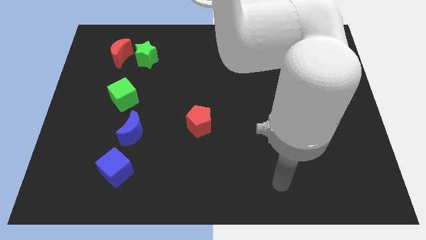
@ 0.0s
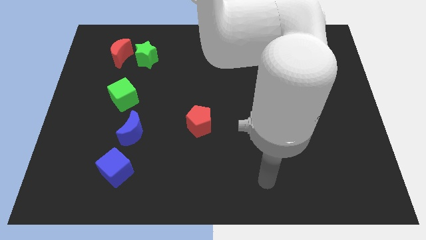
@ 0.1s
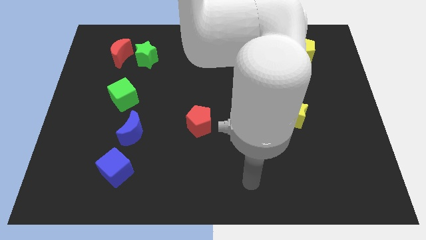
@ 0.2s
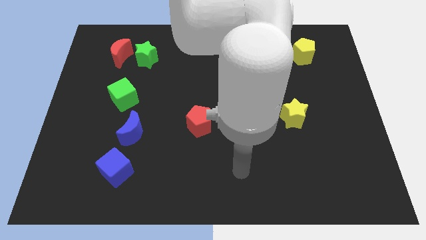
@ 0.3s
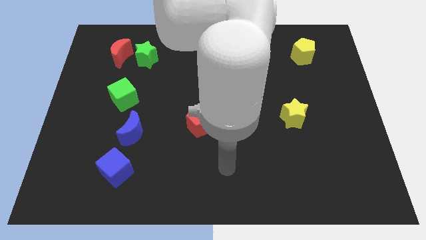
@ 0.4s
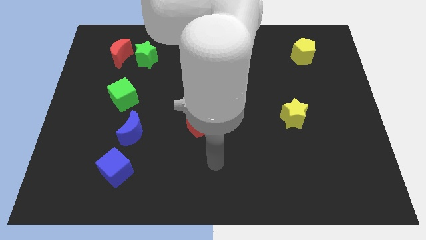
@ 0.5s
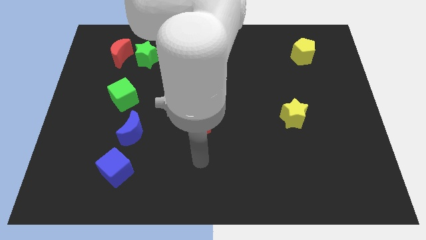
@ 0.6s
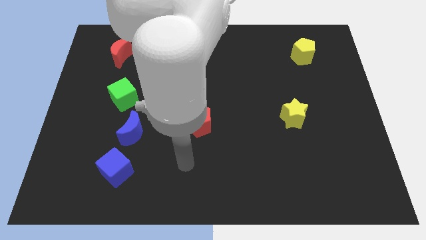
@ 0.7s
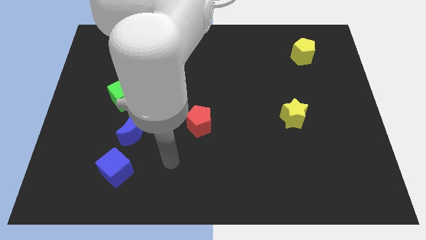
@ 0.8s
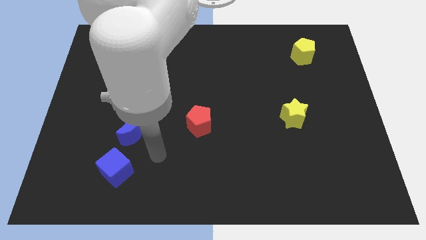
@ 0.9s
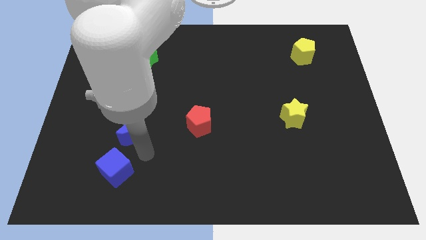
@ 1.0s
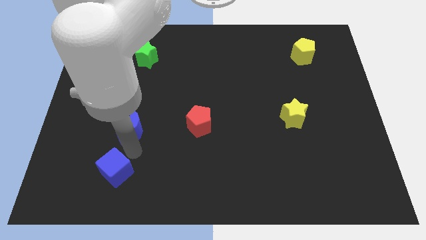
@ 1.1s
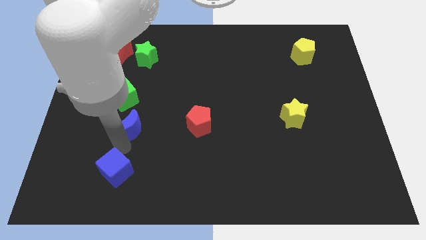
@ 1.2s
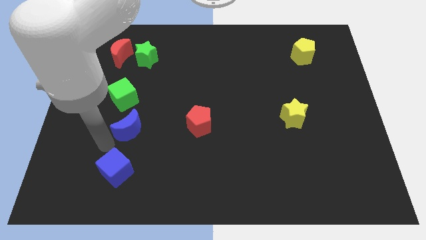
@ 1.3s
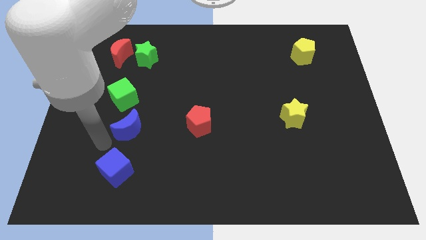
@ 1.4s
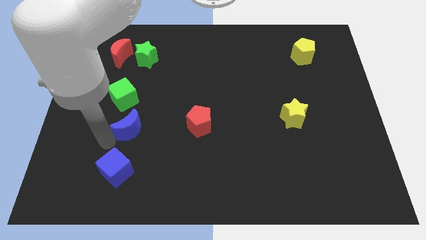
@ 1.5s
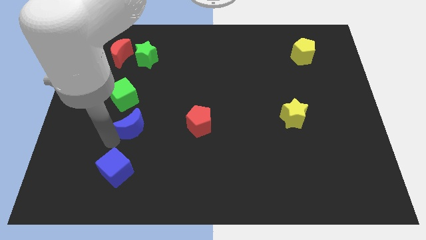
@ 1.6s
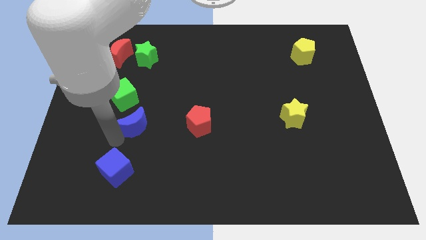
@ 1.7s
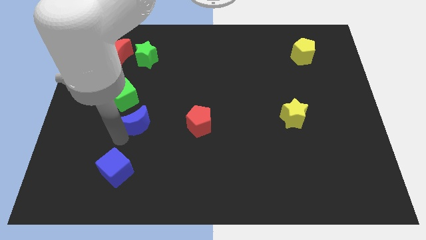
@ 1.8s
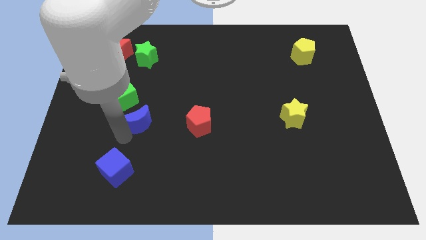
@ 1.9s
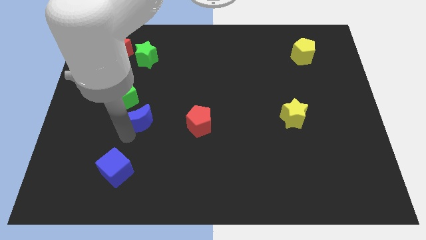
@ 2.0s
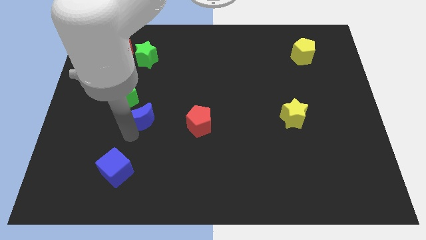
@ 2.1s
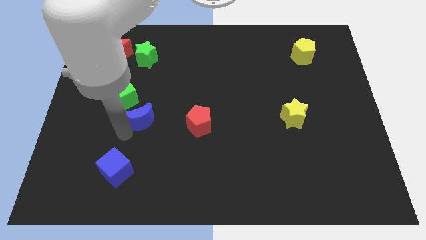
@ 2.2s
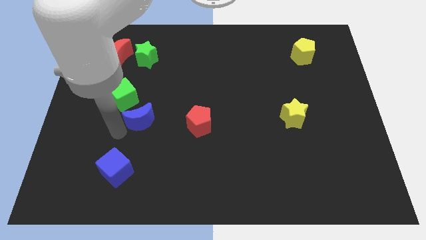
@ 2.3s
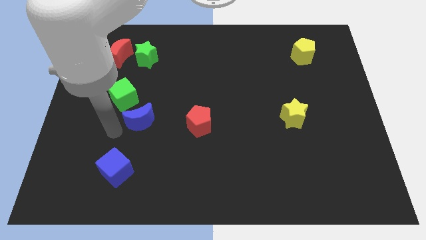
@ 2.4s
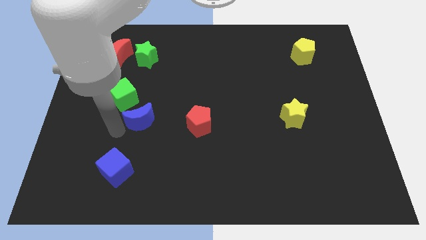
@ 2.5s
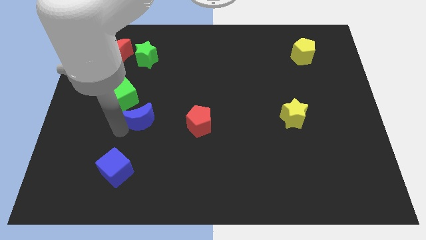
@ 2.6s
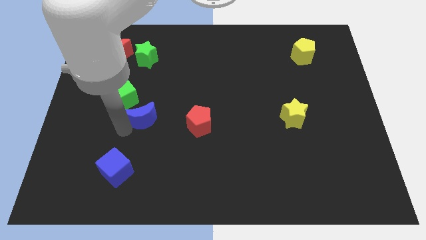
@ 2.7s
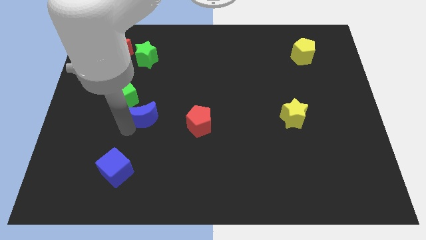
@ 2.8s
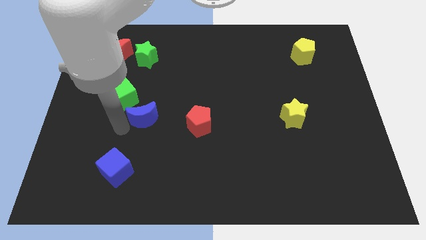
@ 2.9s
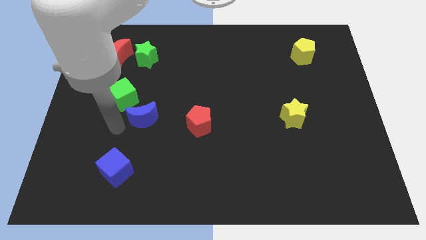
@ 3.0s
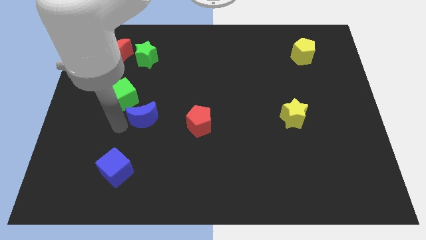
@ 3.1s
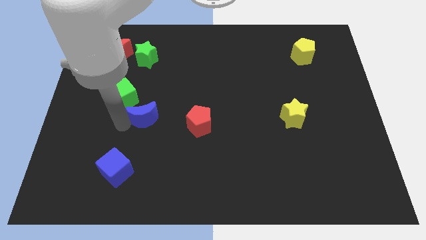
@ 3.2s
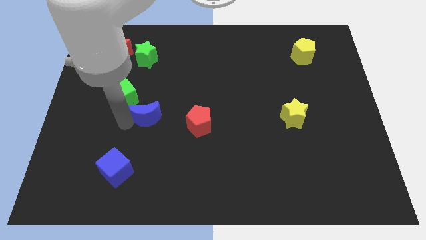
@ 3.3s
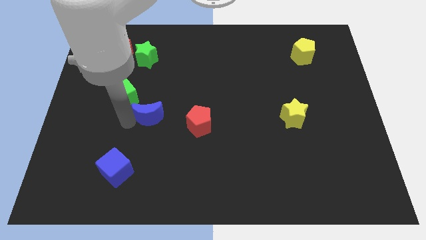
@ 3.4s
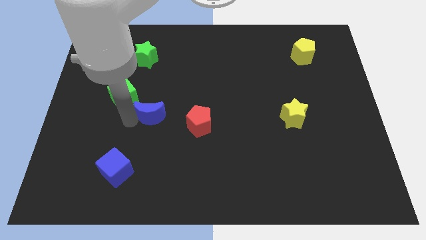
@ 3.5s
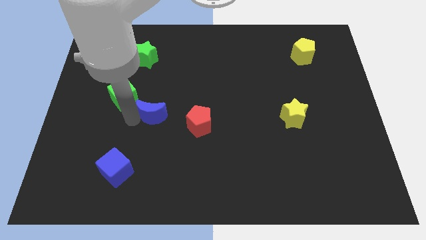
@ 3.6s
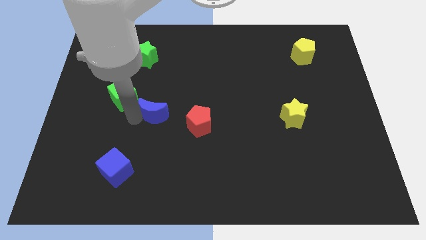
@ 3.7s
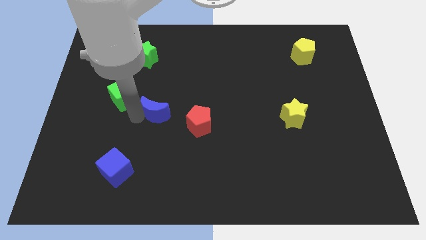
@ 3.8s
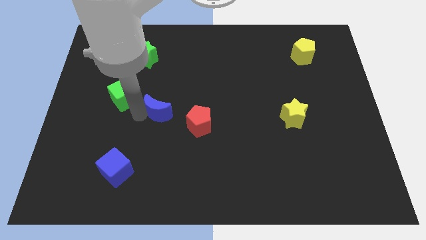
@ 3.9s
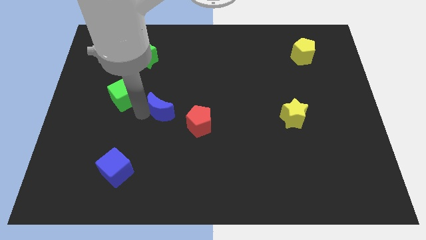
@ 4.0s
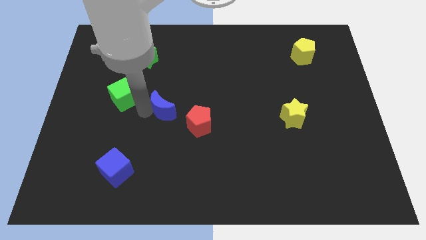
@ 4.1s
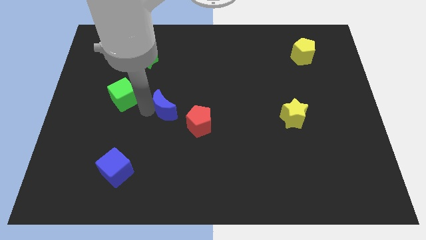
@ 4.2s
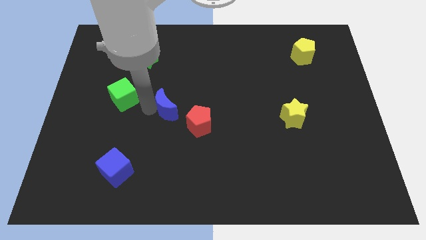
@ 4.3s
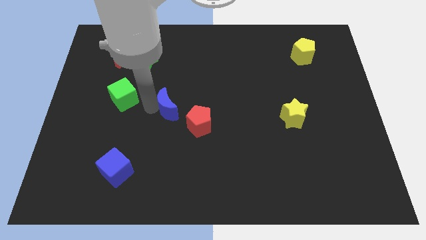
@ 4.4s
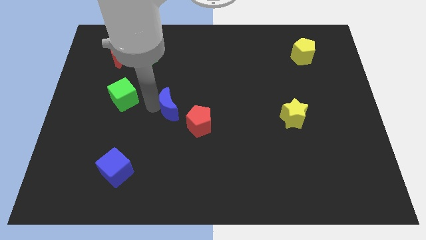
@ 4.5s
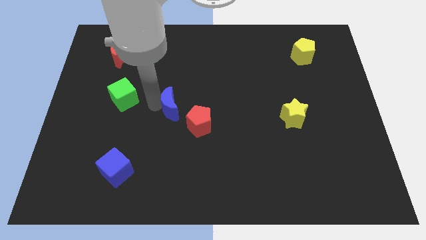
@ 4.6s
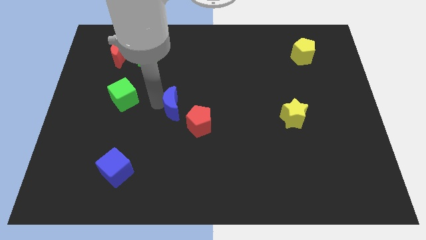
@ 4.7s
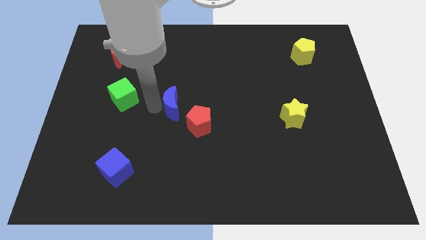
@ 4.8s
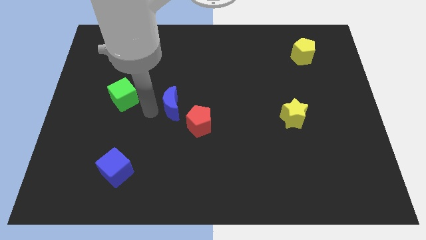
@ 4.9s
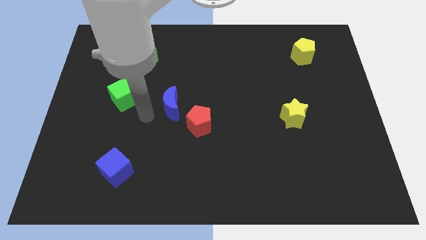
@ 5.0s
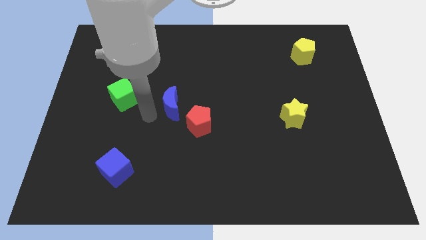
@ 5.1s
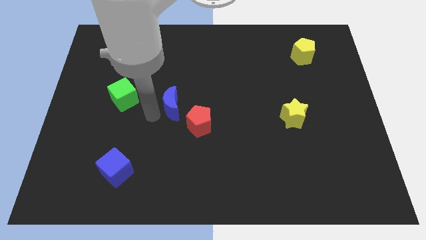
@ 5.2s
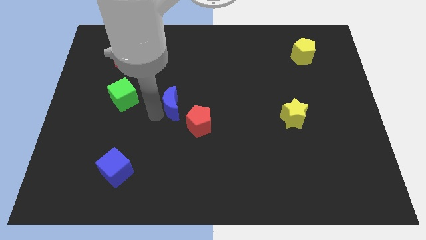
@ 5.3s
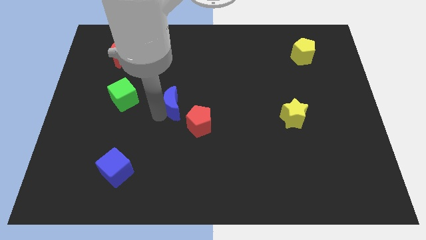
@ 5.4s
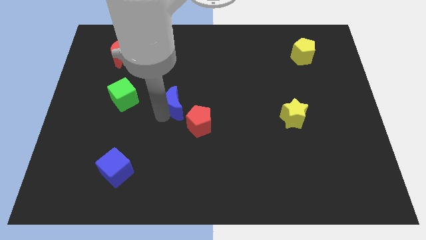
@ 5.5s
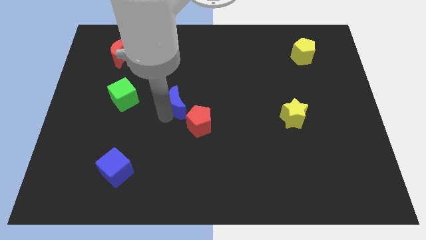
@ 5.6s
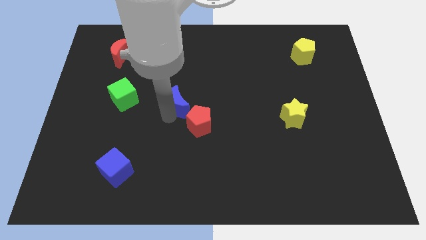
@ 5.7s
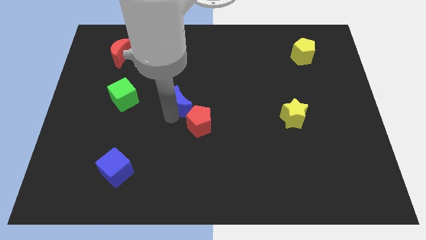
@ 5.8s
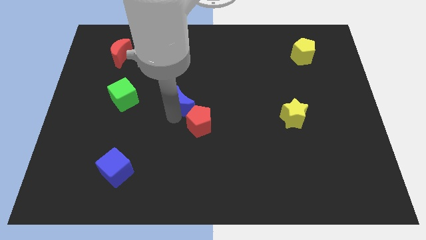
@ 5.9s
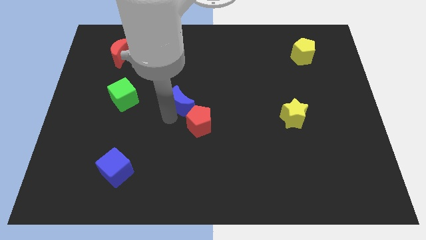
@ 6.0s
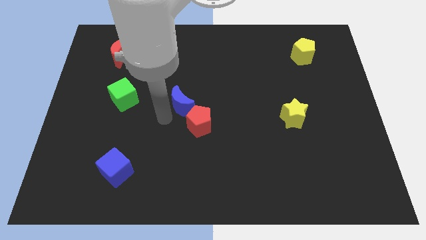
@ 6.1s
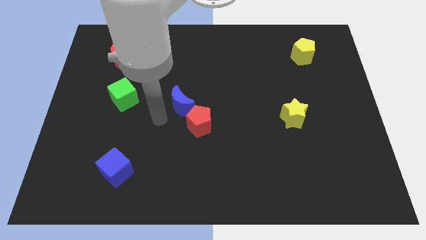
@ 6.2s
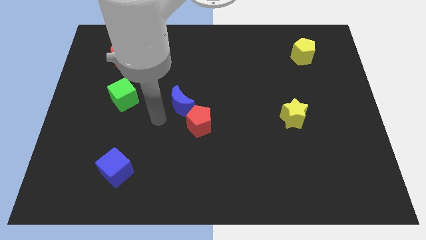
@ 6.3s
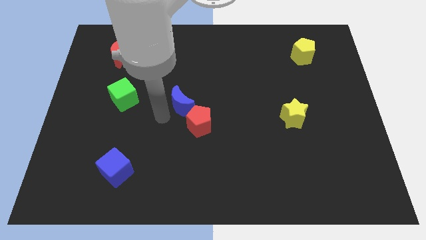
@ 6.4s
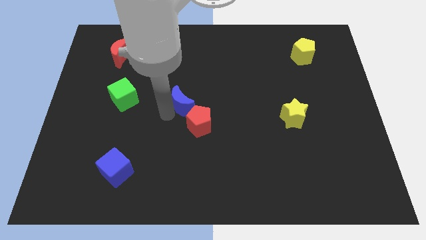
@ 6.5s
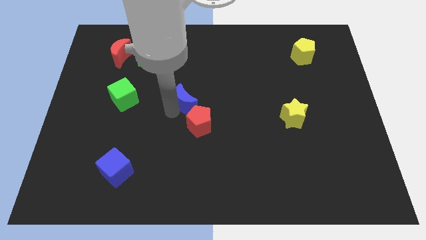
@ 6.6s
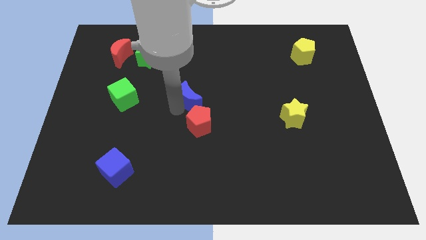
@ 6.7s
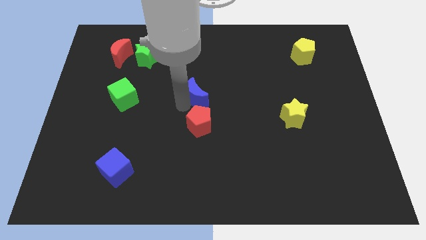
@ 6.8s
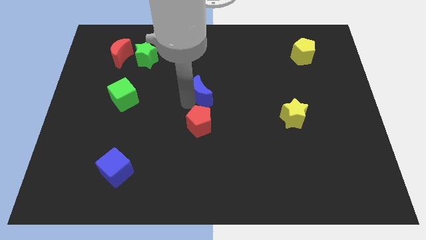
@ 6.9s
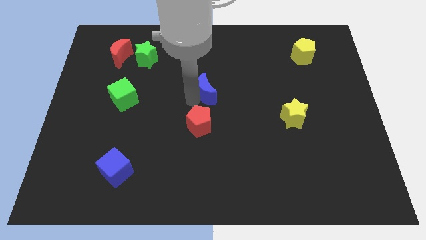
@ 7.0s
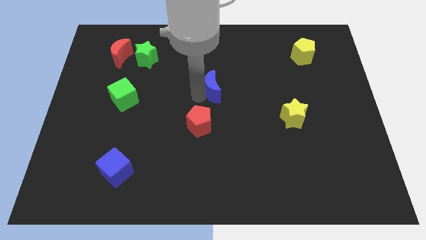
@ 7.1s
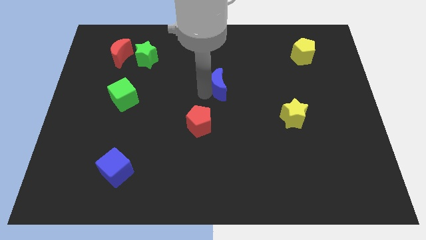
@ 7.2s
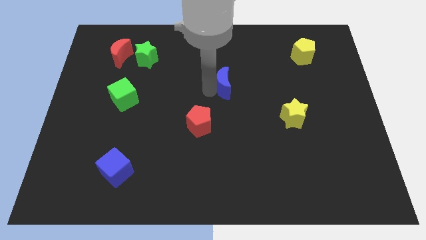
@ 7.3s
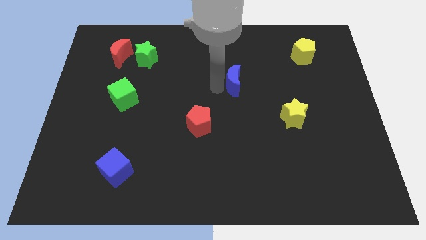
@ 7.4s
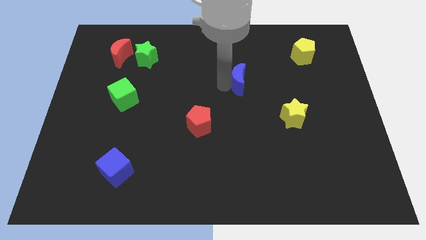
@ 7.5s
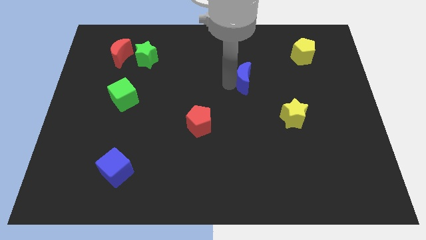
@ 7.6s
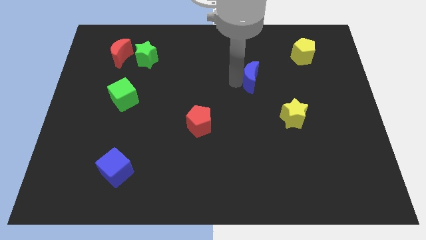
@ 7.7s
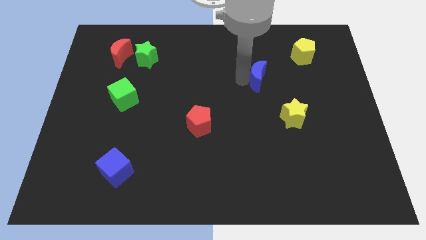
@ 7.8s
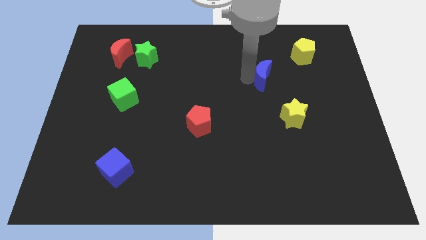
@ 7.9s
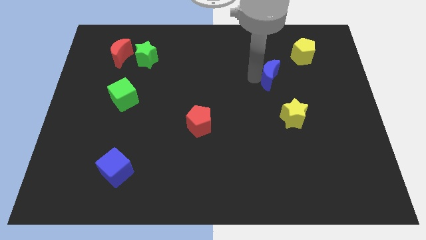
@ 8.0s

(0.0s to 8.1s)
push the blue moon above the yellow star
